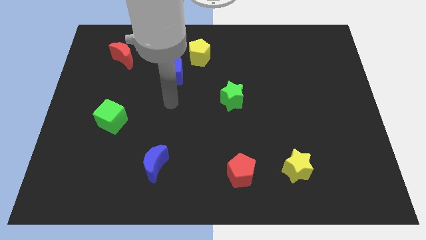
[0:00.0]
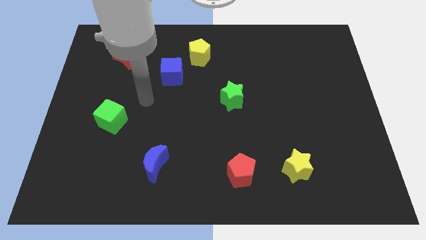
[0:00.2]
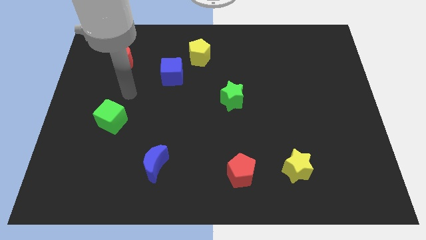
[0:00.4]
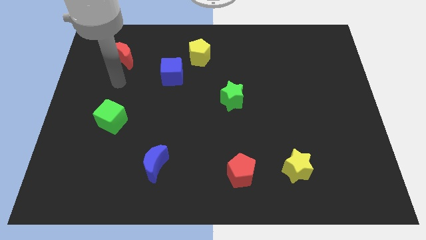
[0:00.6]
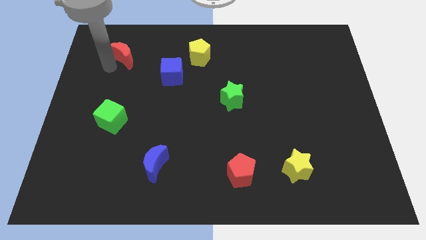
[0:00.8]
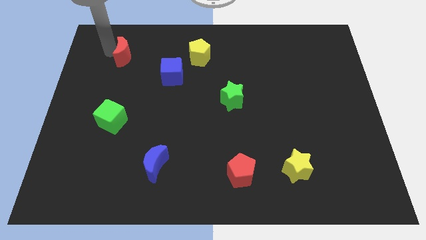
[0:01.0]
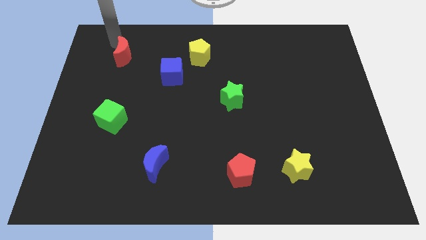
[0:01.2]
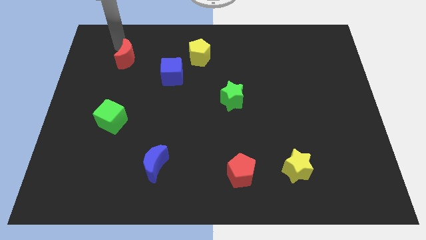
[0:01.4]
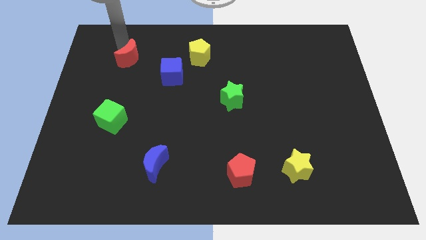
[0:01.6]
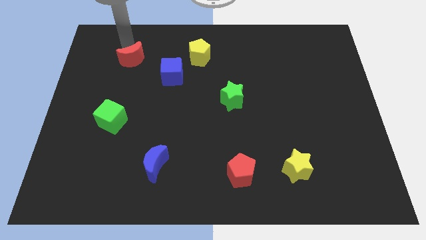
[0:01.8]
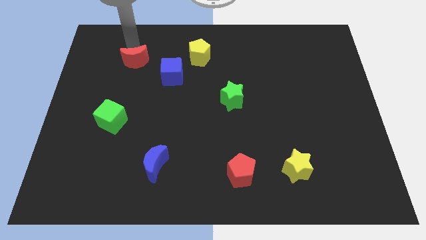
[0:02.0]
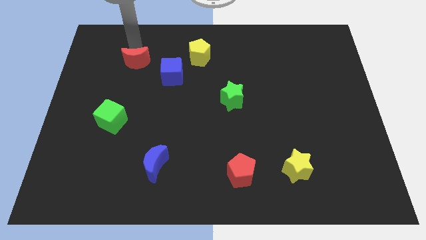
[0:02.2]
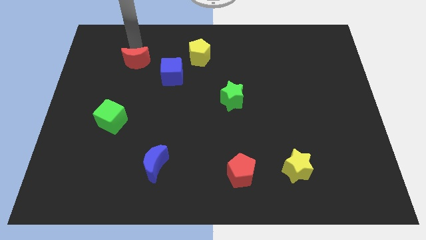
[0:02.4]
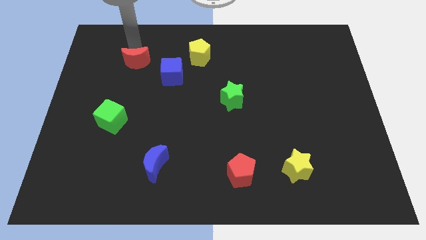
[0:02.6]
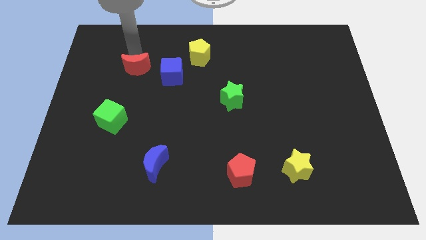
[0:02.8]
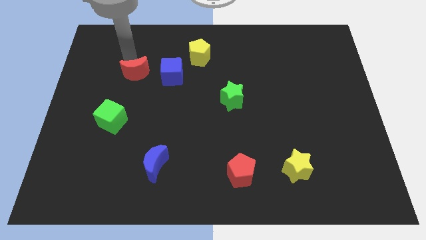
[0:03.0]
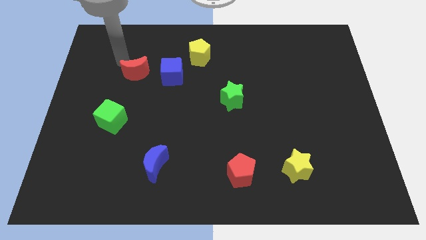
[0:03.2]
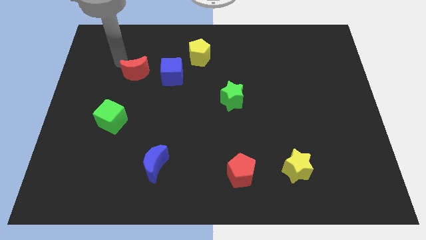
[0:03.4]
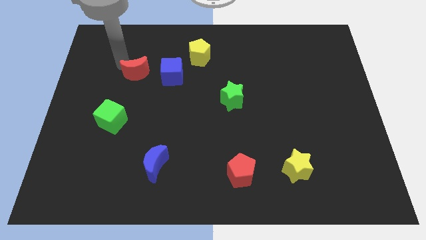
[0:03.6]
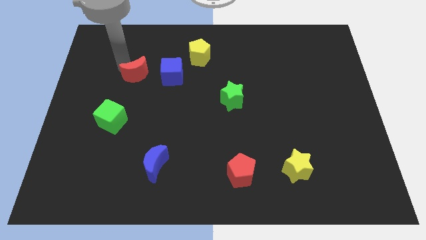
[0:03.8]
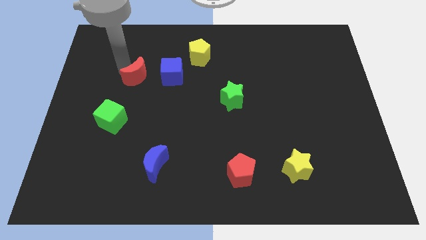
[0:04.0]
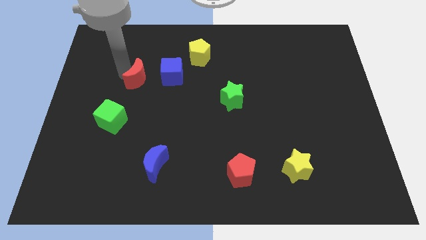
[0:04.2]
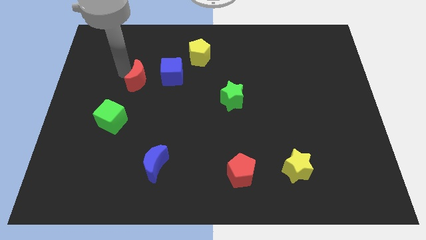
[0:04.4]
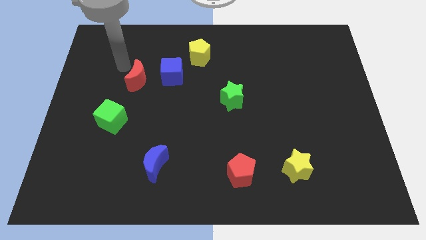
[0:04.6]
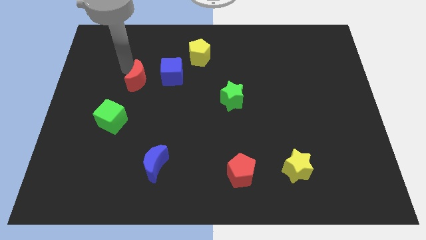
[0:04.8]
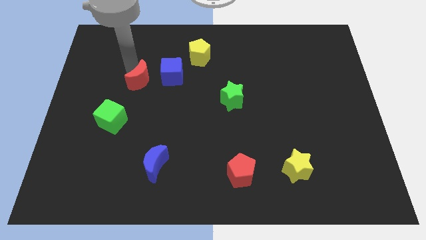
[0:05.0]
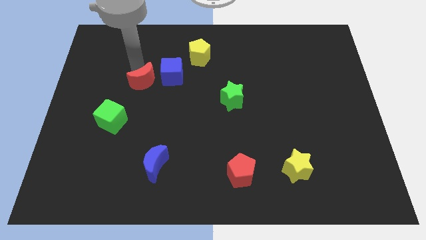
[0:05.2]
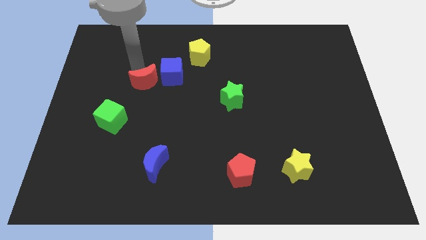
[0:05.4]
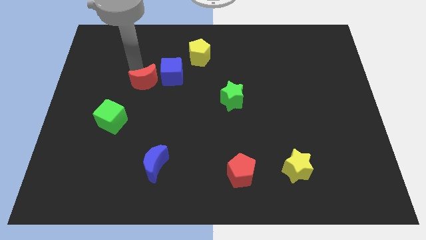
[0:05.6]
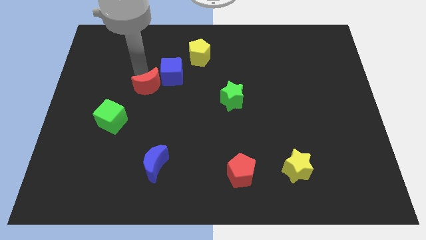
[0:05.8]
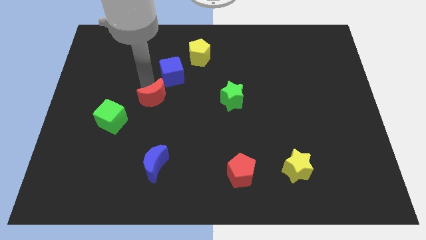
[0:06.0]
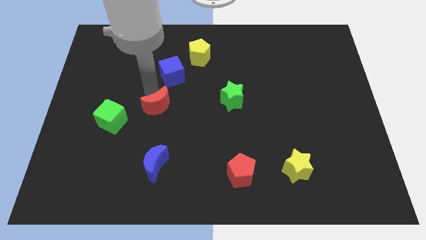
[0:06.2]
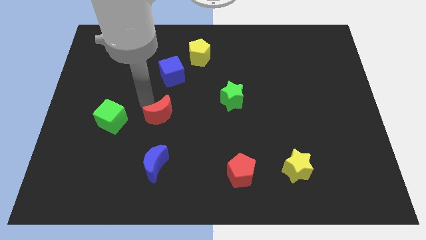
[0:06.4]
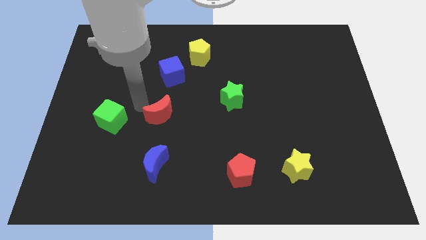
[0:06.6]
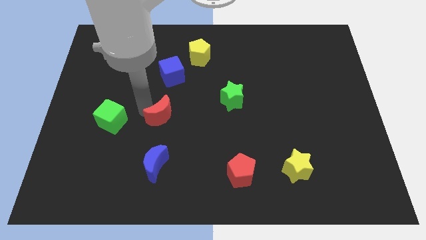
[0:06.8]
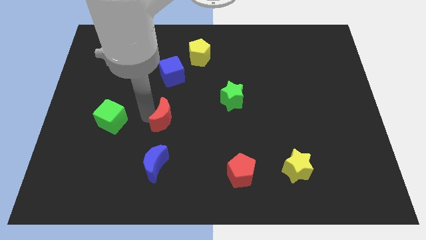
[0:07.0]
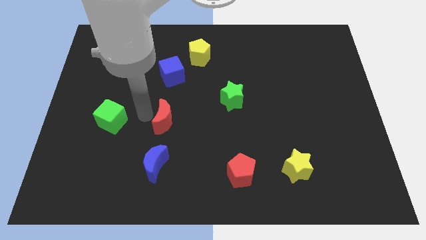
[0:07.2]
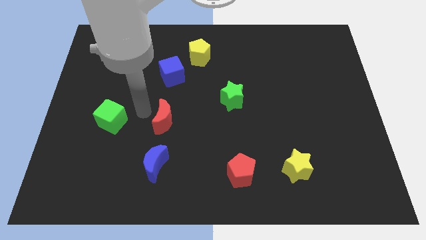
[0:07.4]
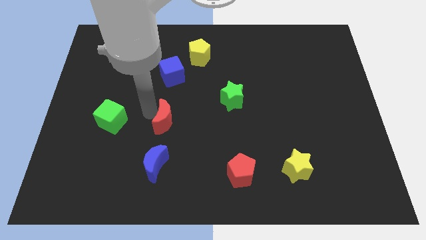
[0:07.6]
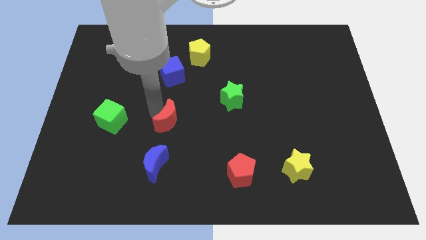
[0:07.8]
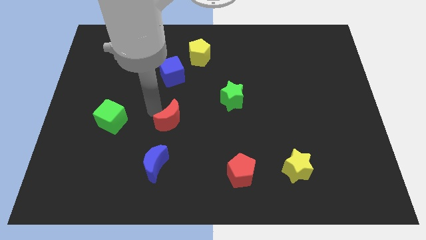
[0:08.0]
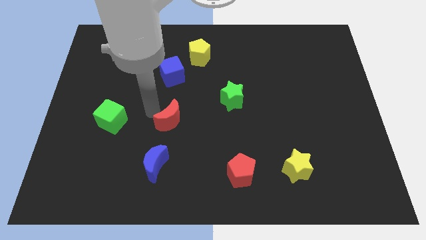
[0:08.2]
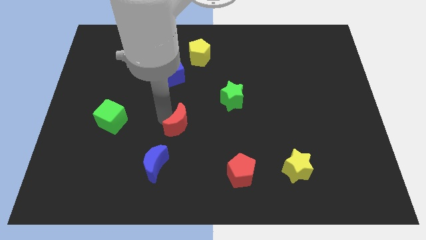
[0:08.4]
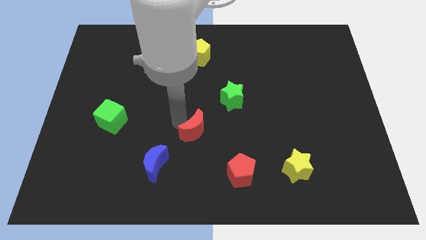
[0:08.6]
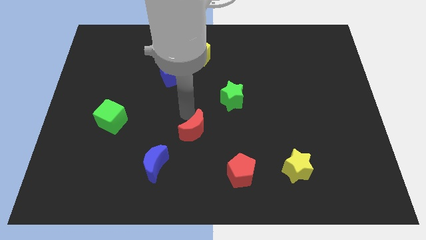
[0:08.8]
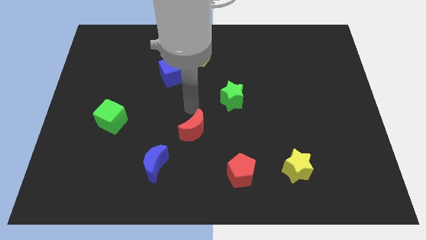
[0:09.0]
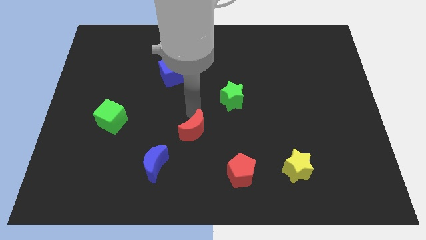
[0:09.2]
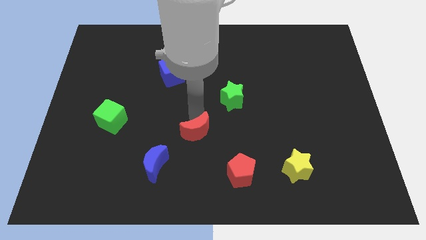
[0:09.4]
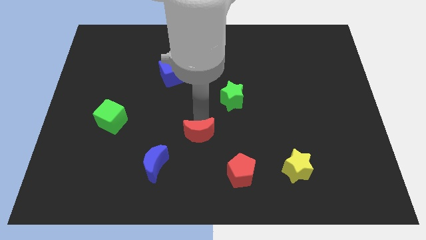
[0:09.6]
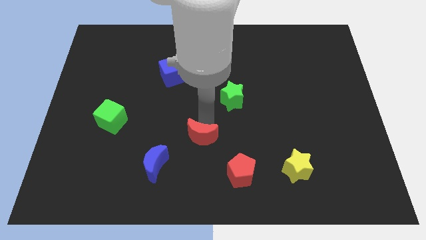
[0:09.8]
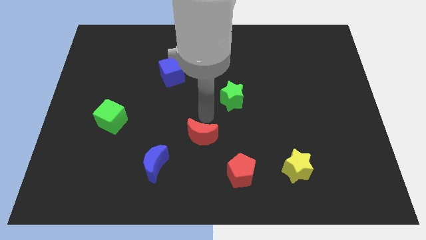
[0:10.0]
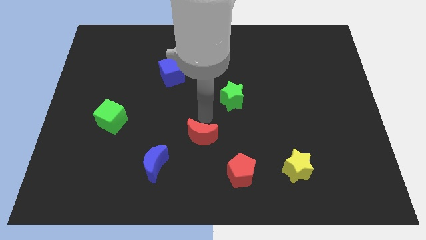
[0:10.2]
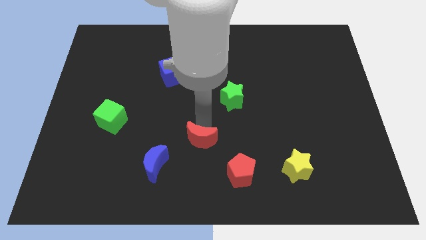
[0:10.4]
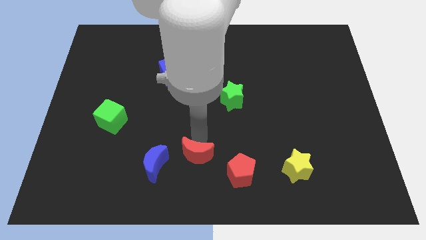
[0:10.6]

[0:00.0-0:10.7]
slide the red moon to the bottom side

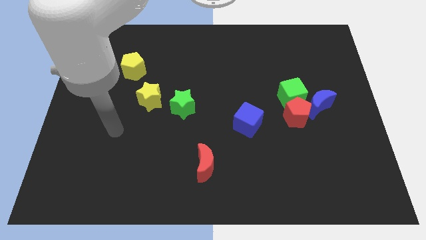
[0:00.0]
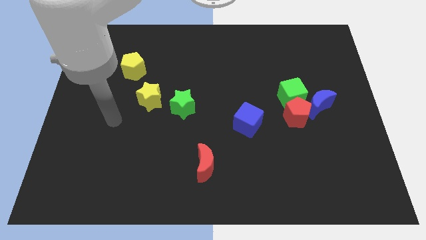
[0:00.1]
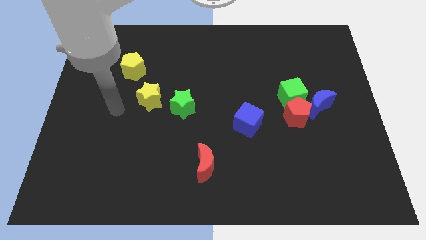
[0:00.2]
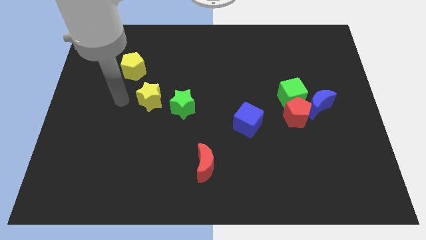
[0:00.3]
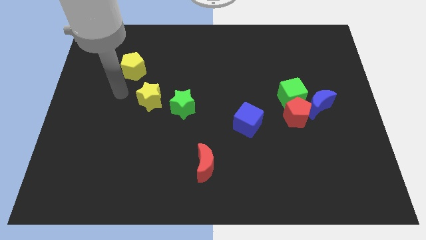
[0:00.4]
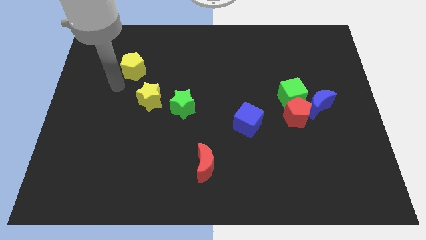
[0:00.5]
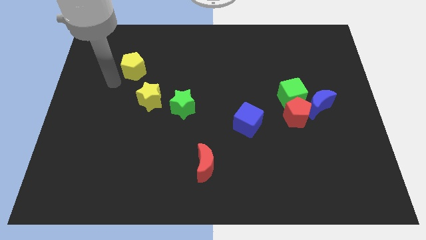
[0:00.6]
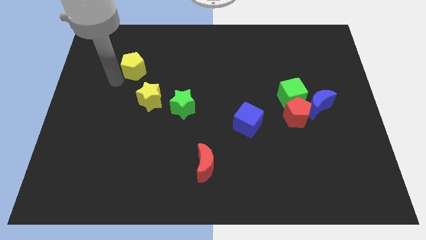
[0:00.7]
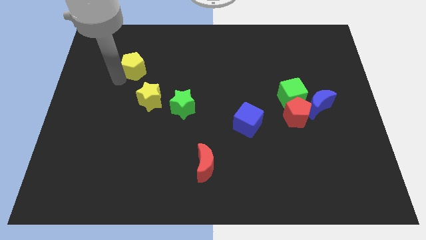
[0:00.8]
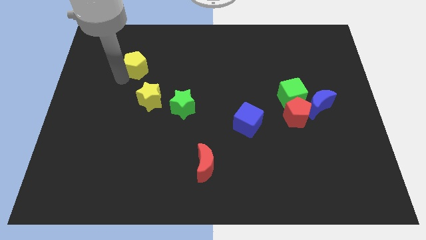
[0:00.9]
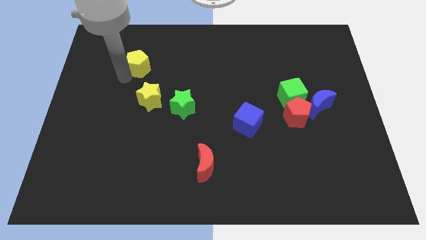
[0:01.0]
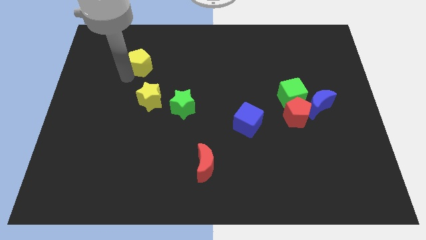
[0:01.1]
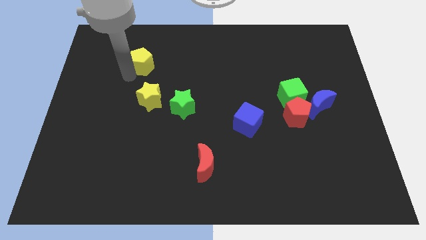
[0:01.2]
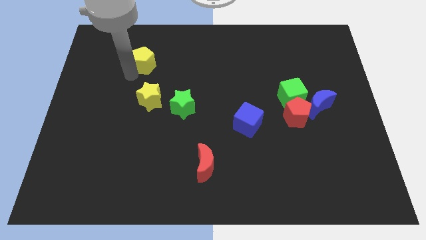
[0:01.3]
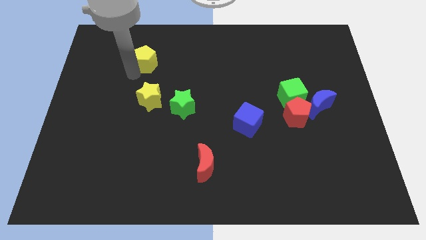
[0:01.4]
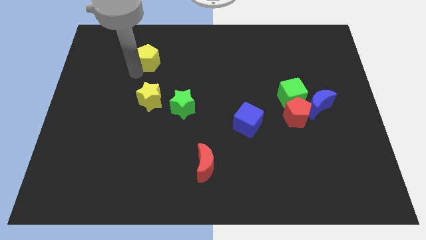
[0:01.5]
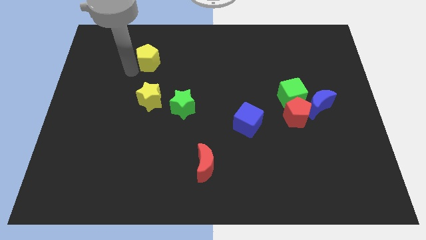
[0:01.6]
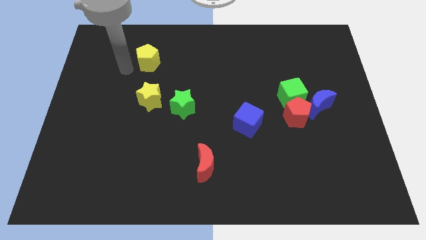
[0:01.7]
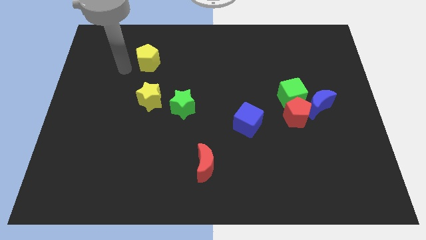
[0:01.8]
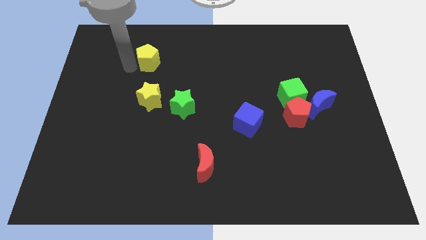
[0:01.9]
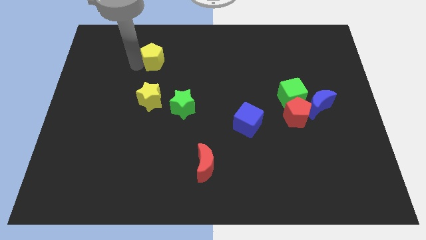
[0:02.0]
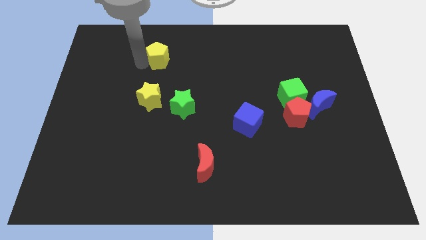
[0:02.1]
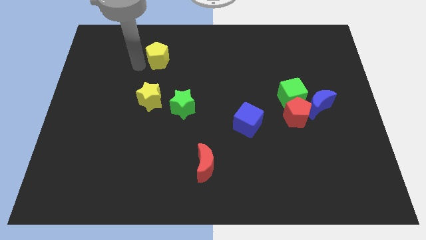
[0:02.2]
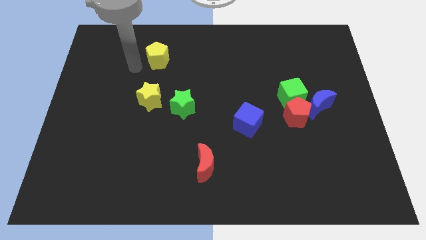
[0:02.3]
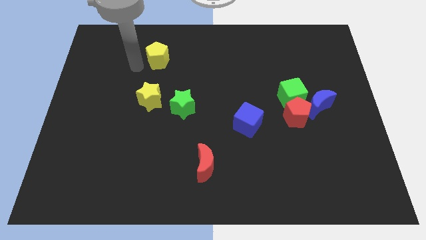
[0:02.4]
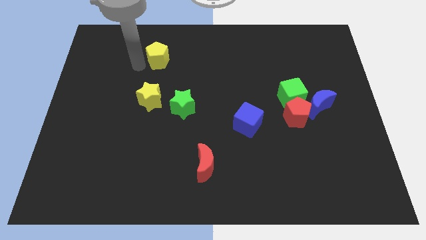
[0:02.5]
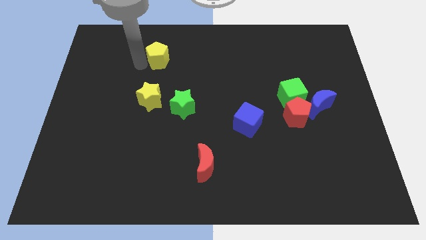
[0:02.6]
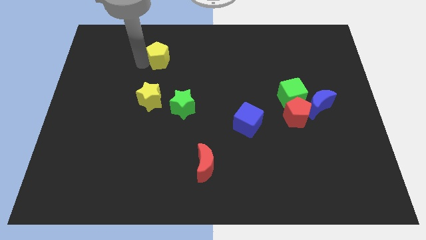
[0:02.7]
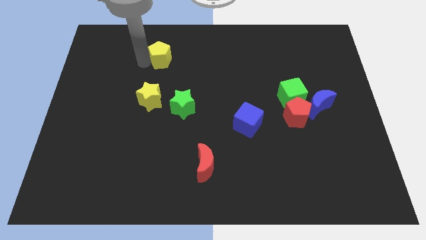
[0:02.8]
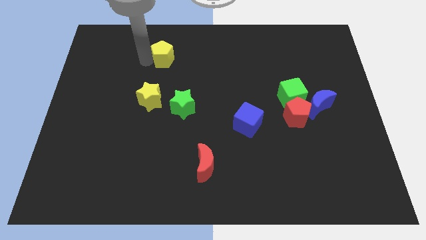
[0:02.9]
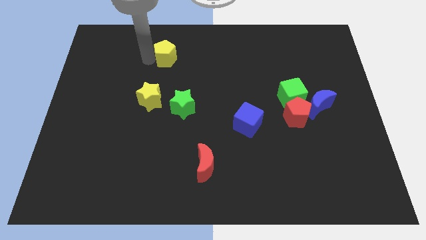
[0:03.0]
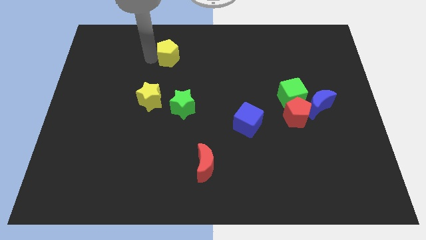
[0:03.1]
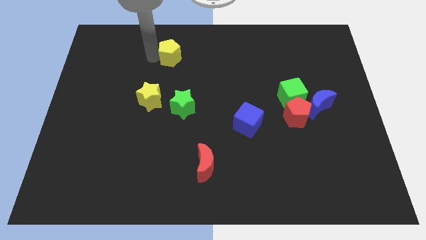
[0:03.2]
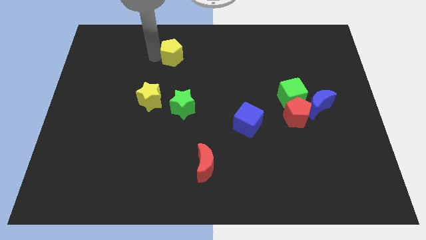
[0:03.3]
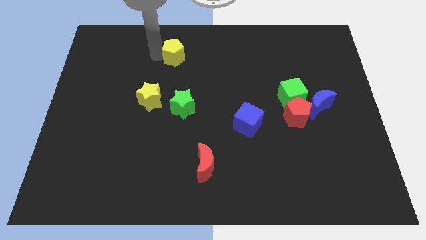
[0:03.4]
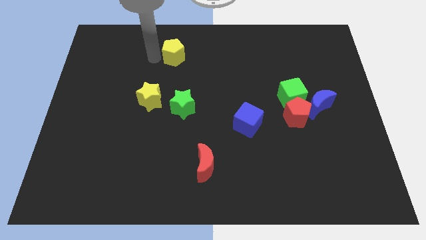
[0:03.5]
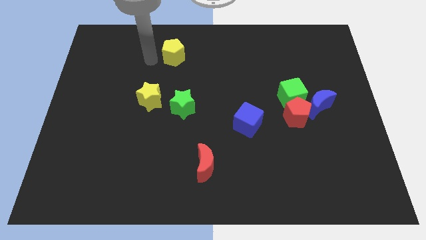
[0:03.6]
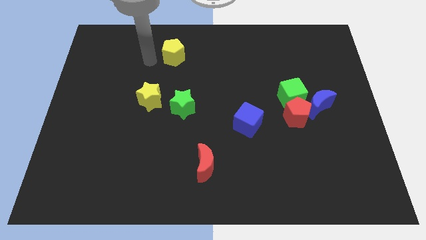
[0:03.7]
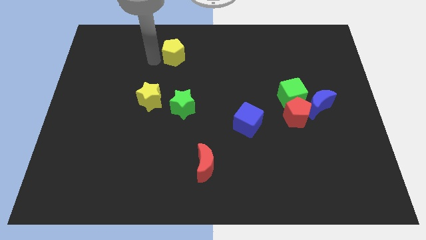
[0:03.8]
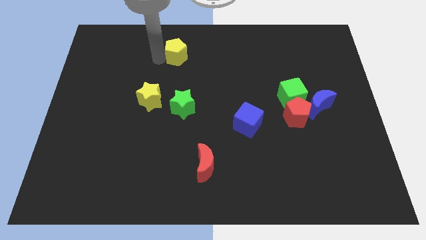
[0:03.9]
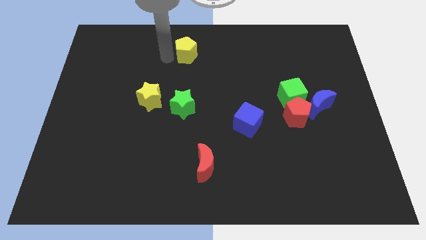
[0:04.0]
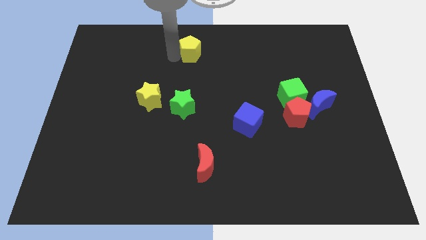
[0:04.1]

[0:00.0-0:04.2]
put the yellow pentagon to the top
